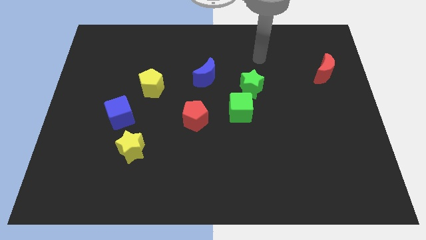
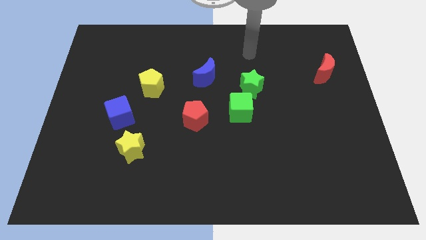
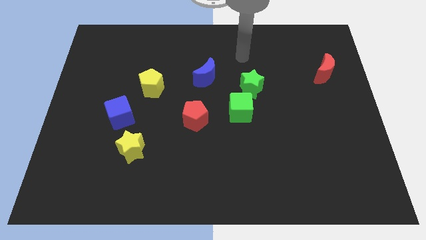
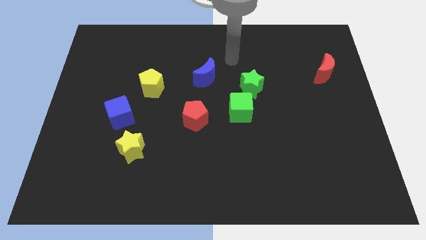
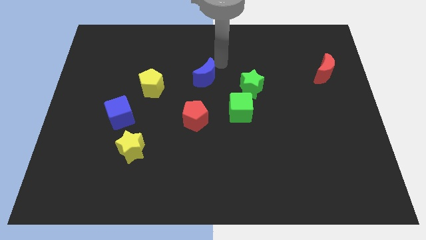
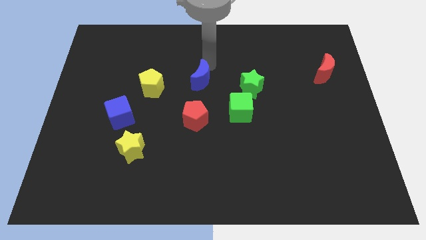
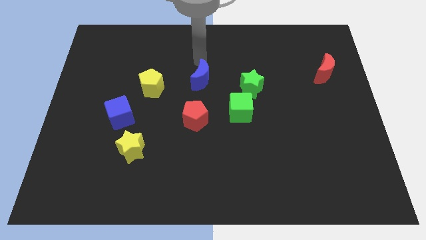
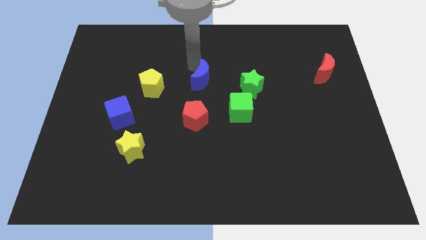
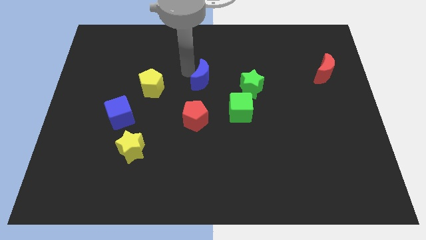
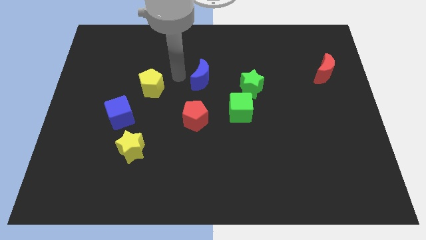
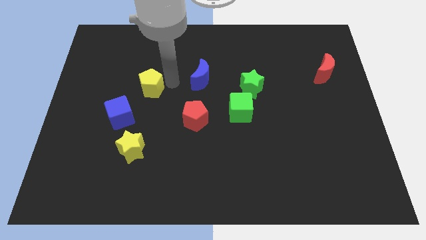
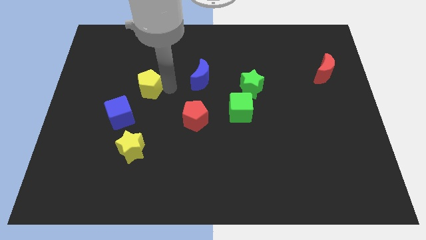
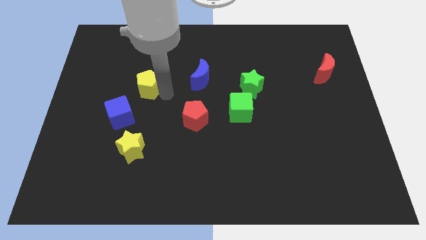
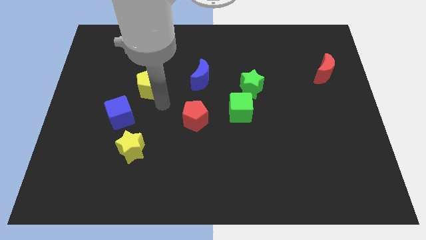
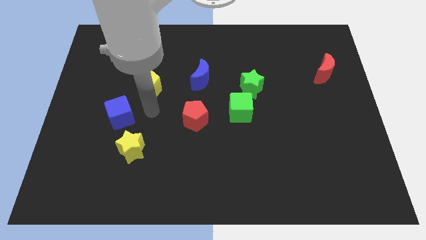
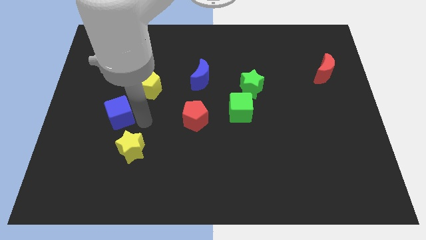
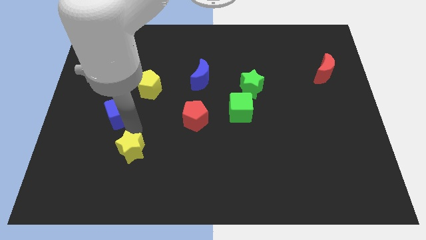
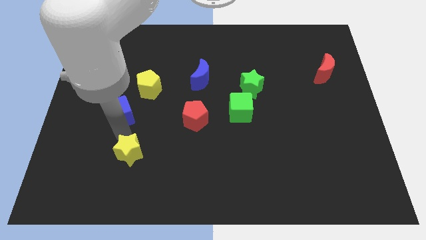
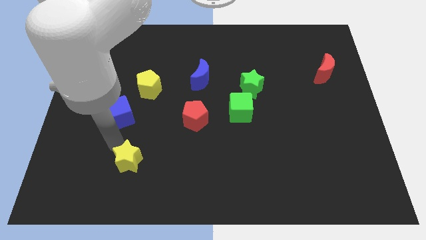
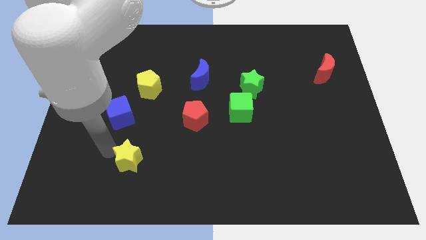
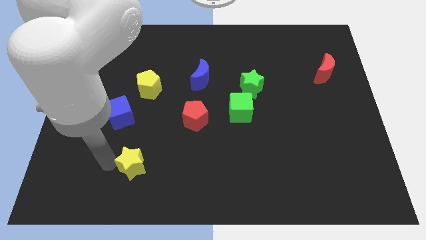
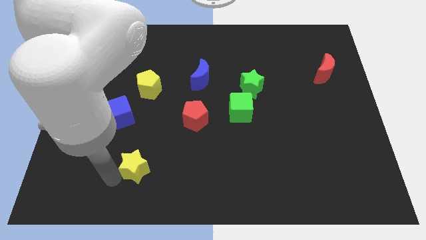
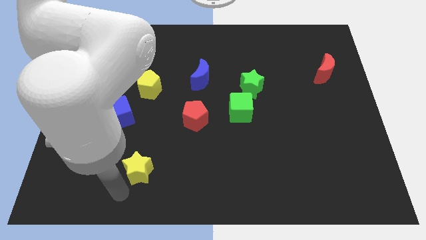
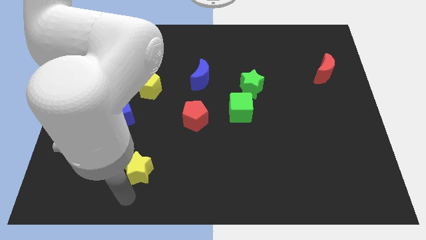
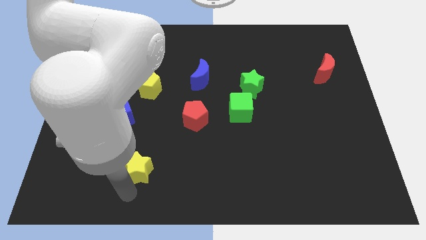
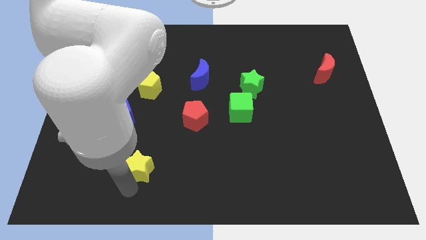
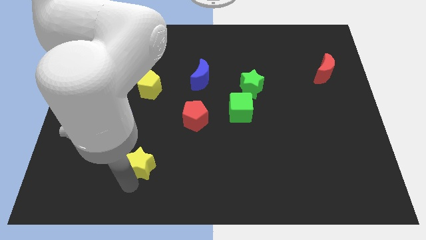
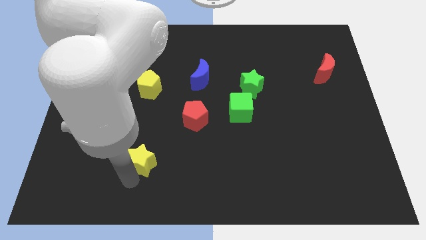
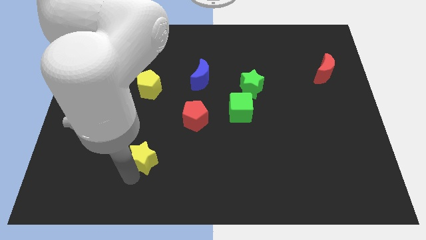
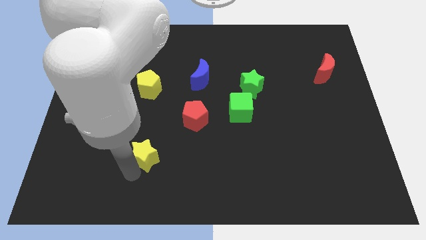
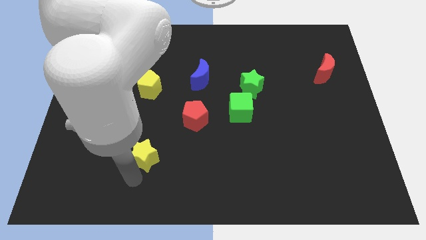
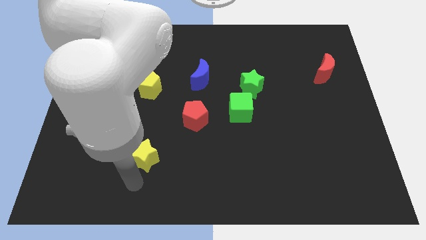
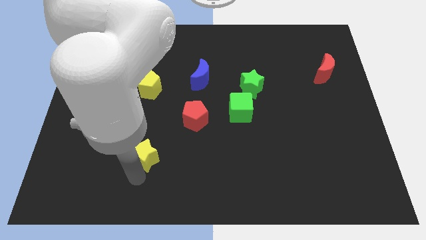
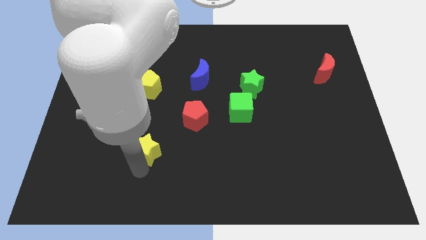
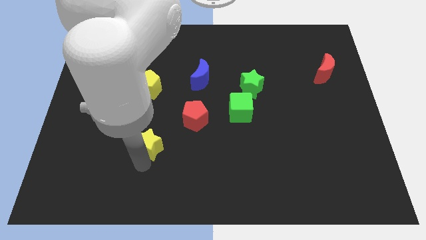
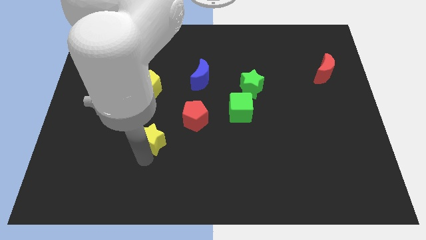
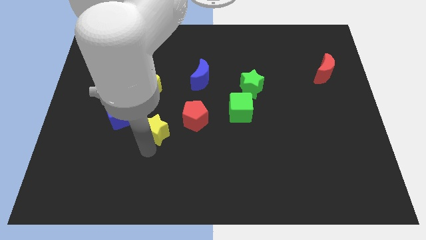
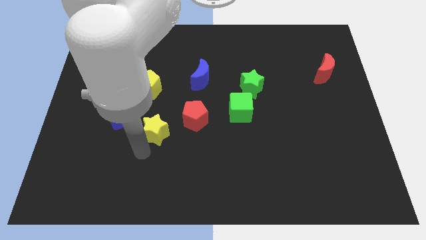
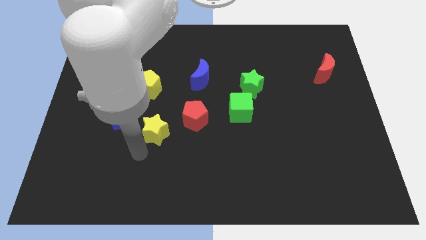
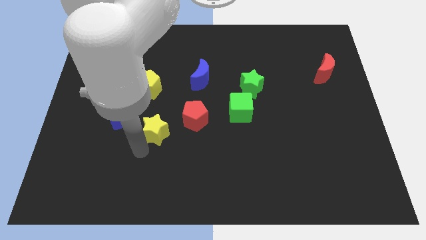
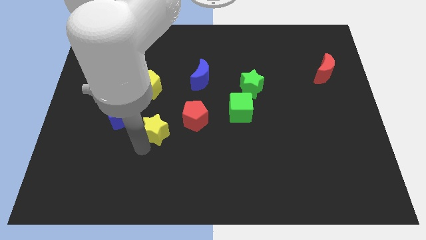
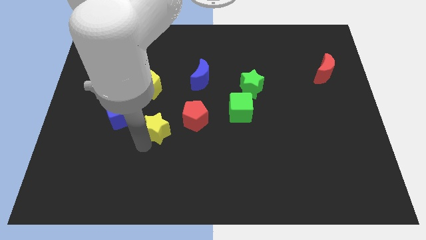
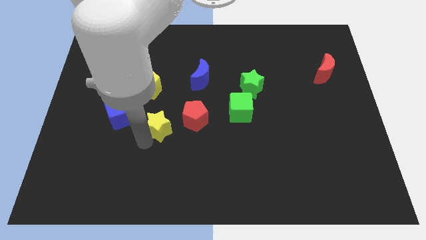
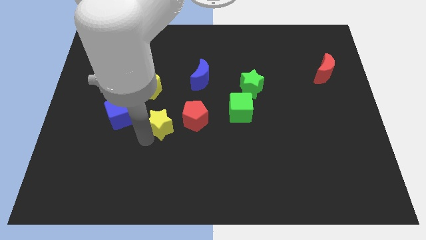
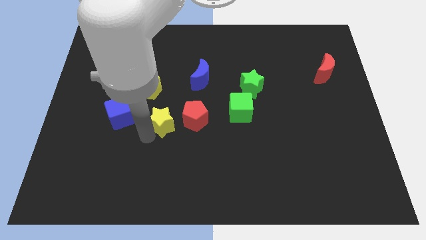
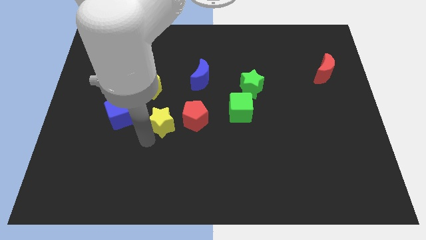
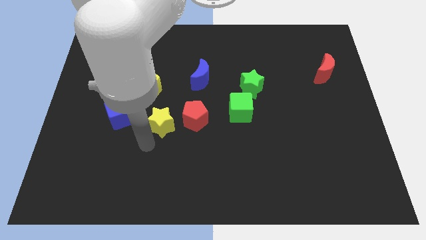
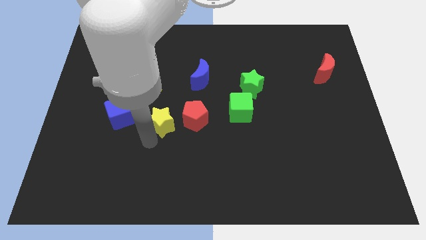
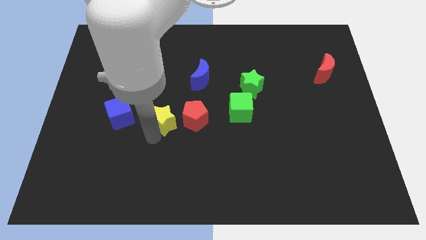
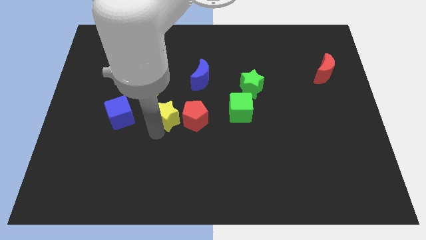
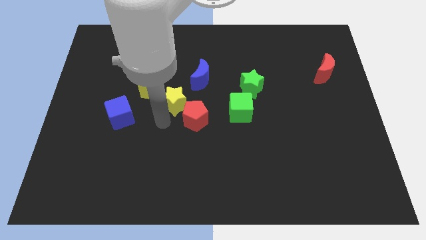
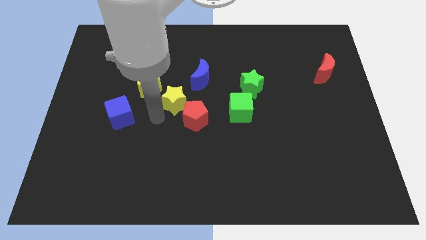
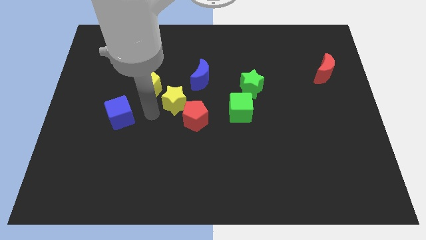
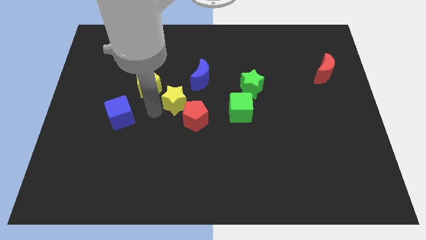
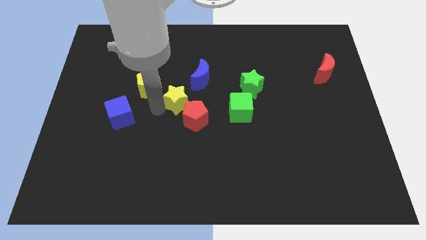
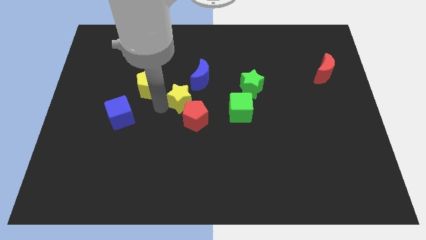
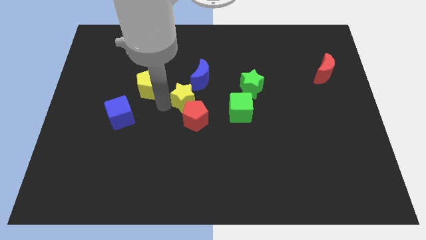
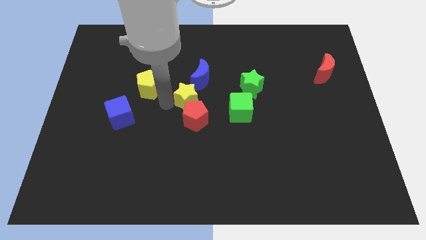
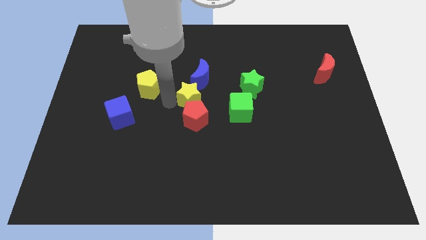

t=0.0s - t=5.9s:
slide the yellow star to the left of the green star

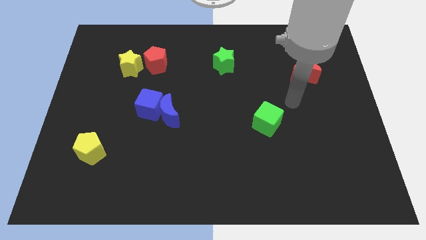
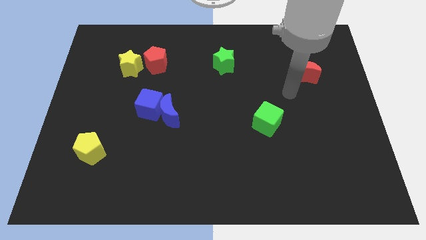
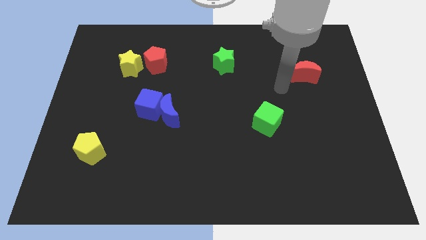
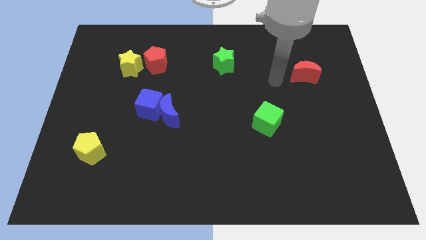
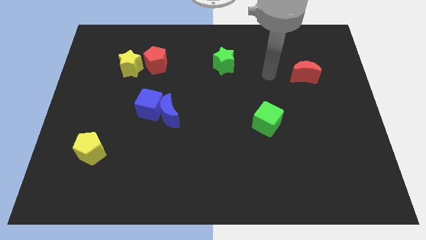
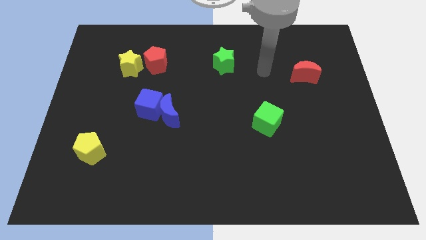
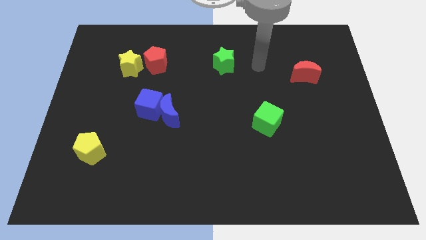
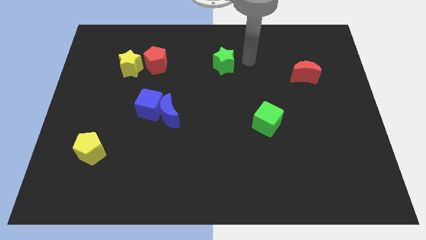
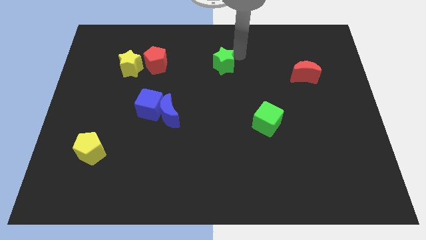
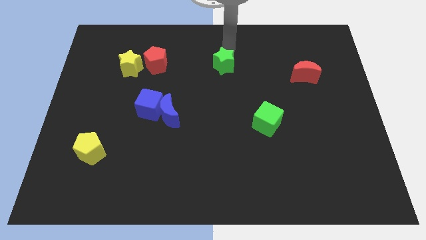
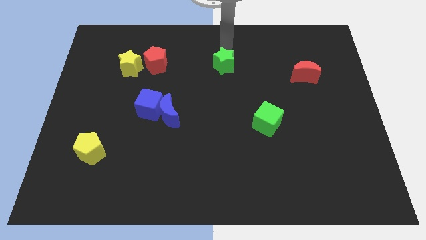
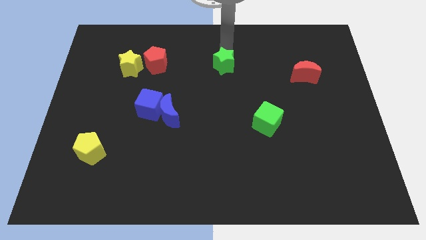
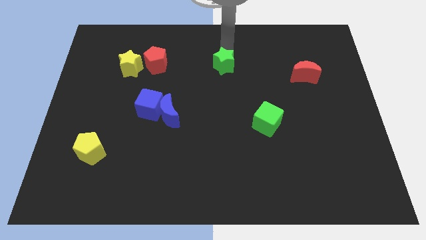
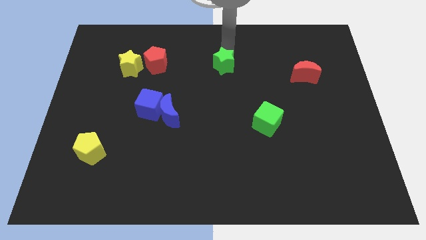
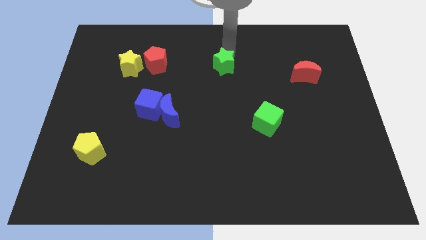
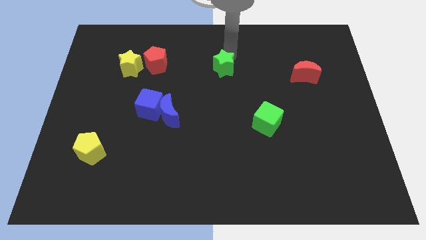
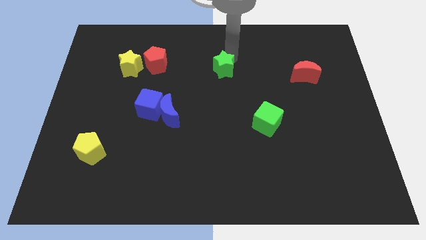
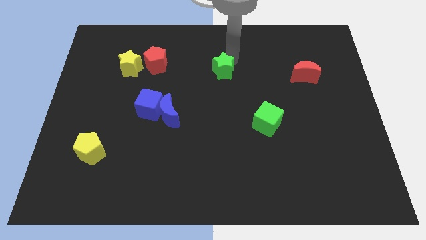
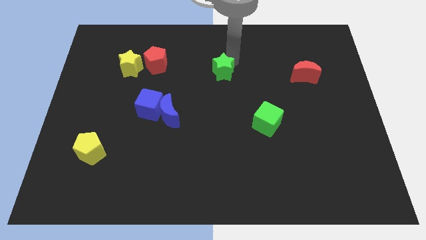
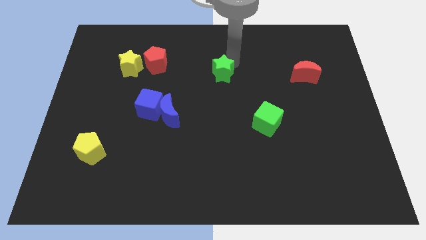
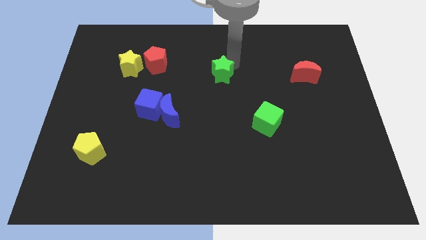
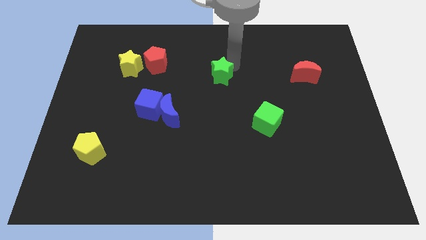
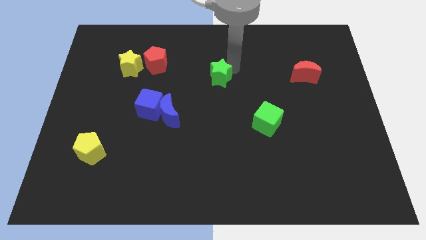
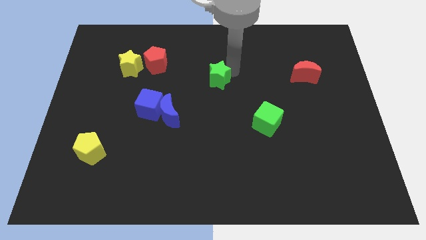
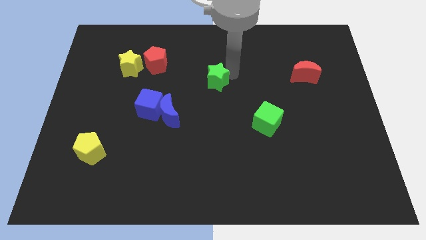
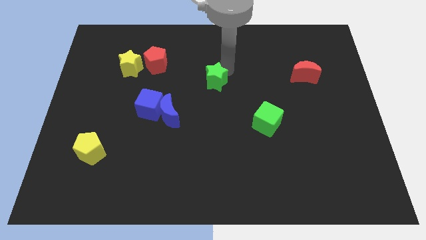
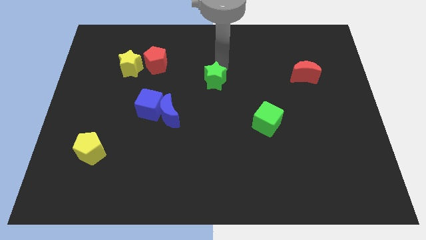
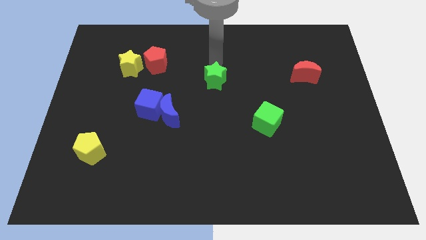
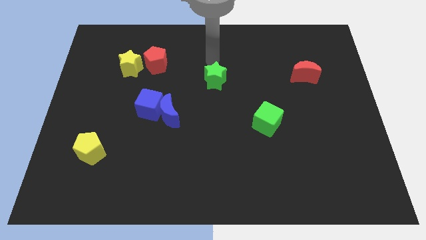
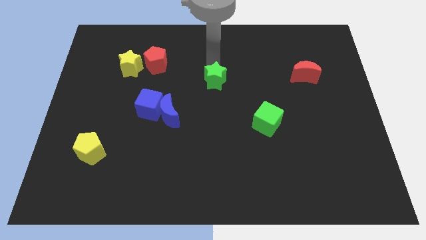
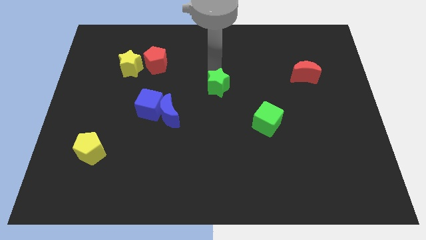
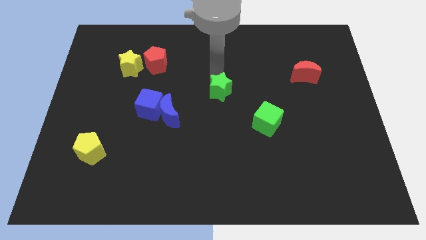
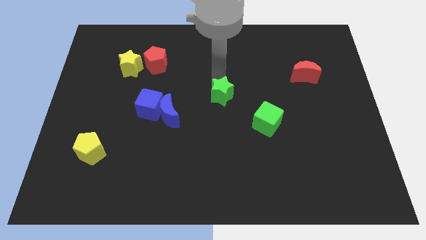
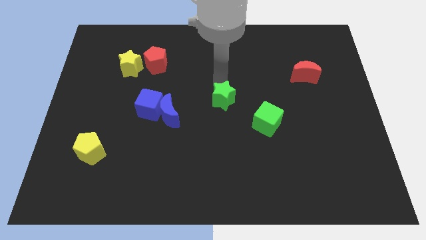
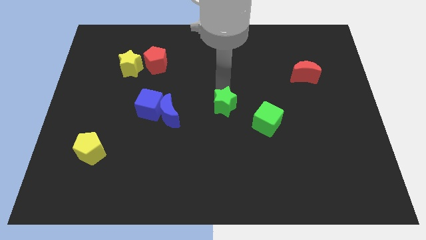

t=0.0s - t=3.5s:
slide the green star left of the green cube
